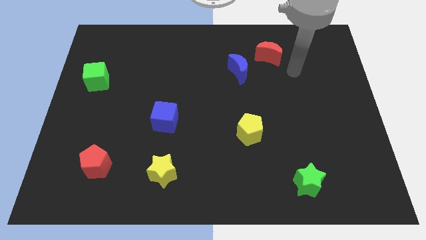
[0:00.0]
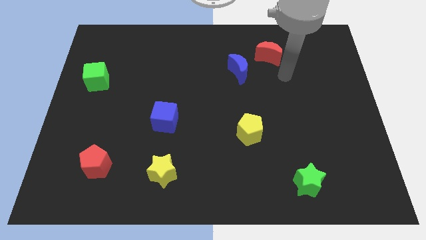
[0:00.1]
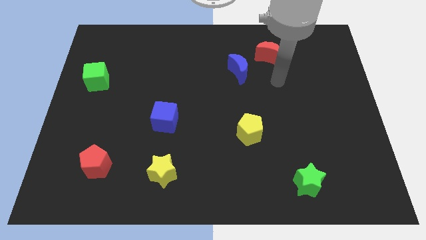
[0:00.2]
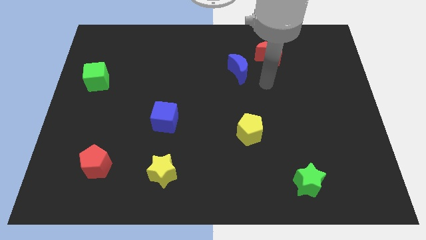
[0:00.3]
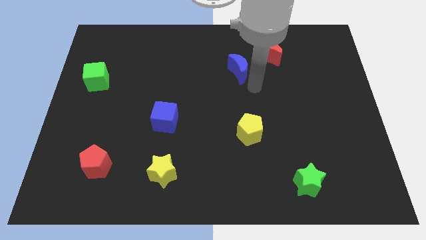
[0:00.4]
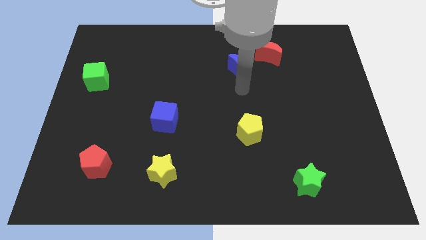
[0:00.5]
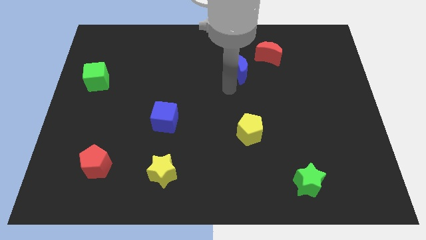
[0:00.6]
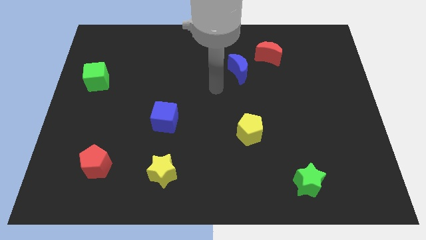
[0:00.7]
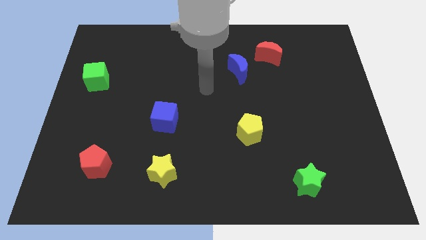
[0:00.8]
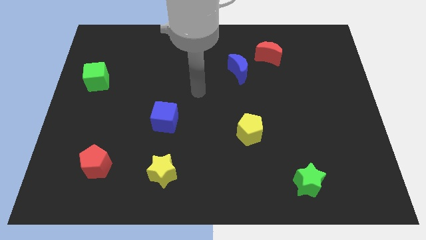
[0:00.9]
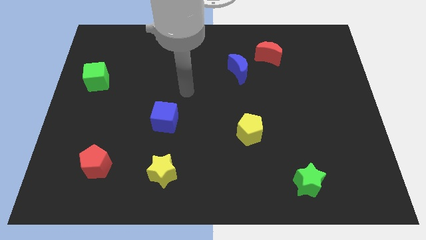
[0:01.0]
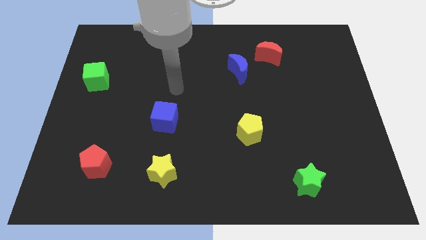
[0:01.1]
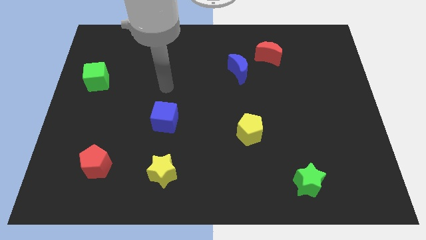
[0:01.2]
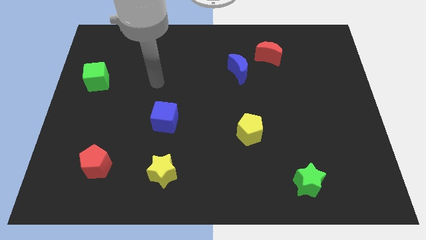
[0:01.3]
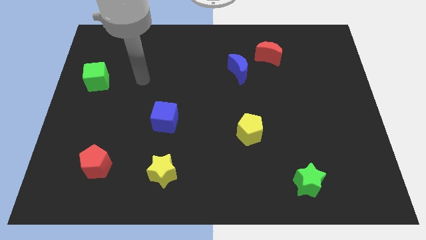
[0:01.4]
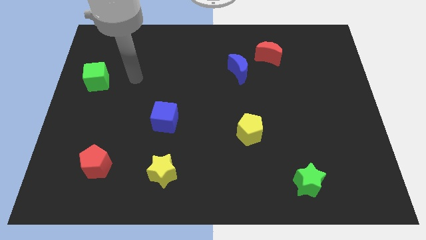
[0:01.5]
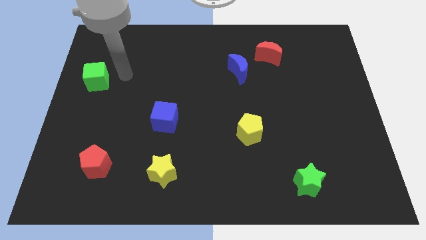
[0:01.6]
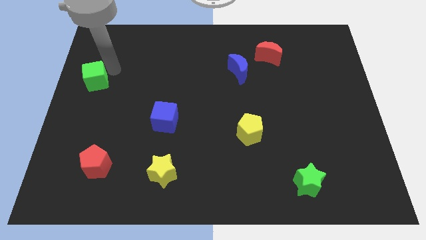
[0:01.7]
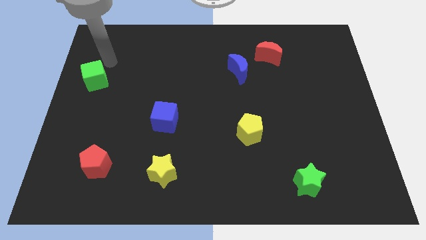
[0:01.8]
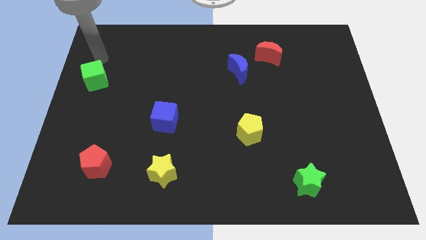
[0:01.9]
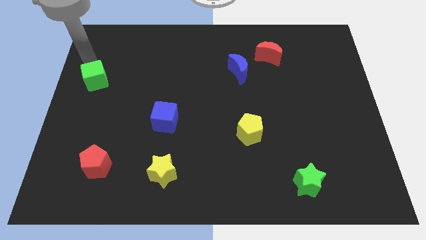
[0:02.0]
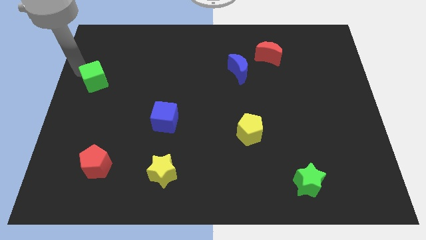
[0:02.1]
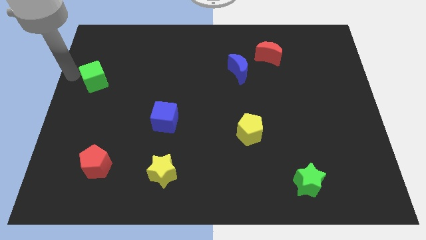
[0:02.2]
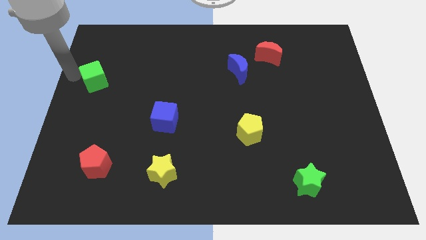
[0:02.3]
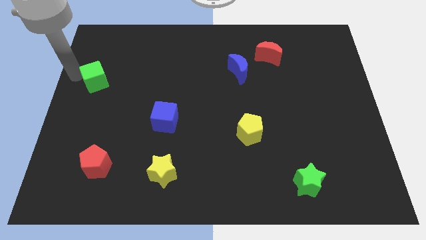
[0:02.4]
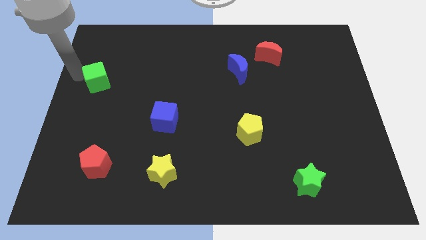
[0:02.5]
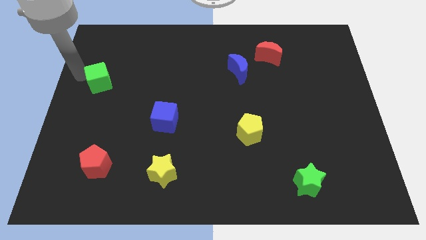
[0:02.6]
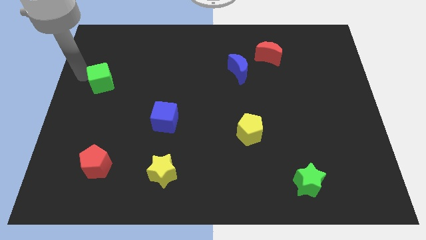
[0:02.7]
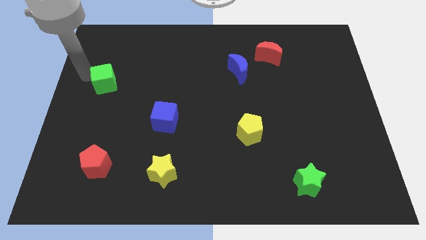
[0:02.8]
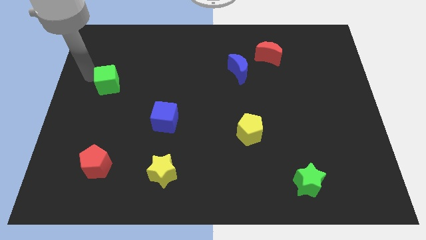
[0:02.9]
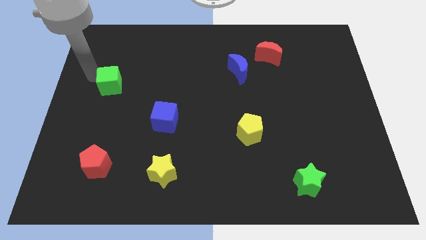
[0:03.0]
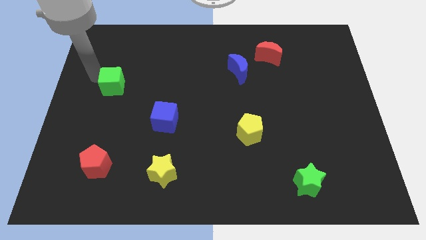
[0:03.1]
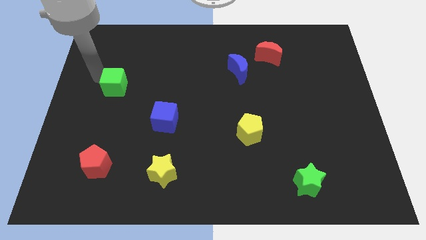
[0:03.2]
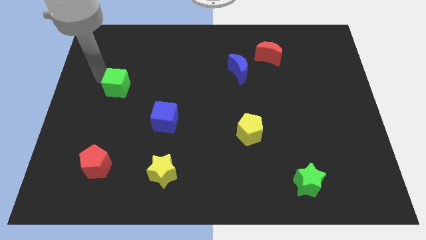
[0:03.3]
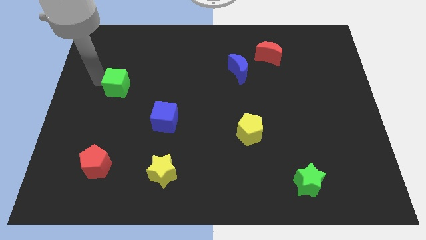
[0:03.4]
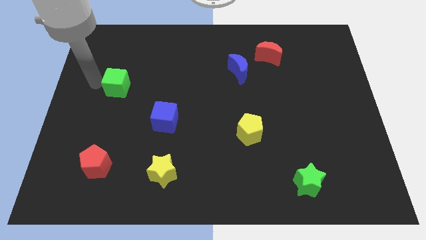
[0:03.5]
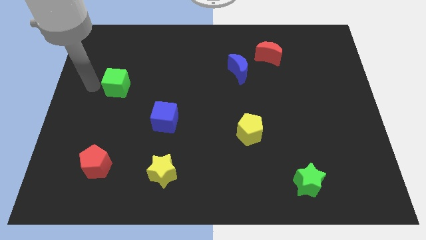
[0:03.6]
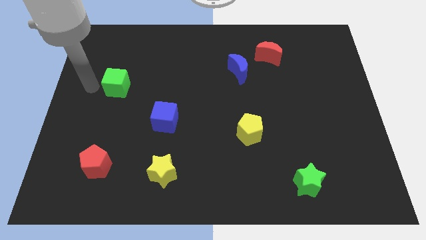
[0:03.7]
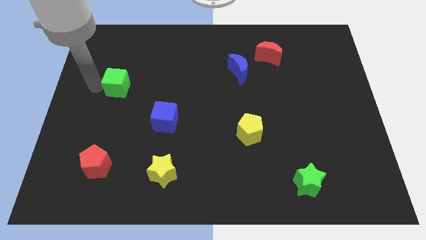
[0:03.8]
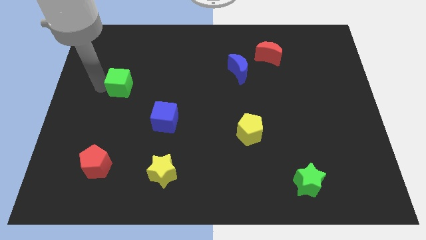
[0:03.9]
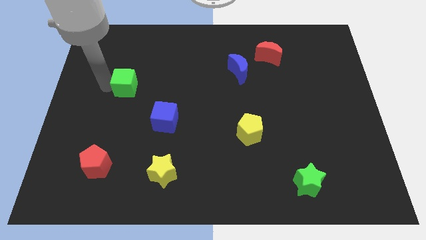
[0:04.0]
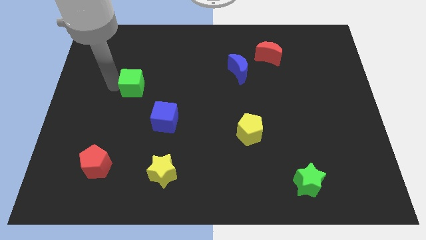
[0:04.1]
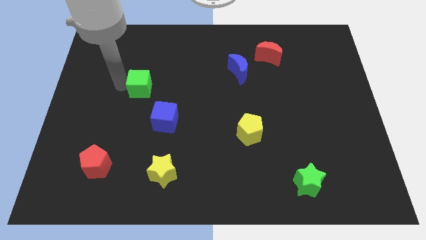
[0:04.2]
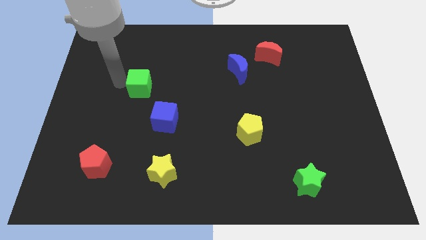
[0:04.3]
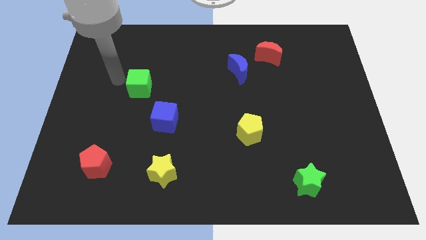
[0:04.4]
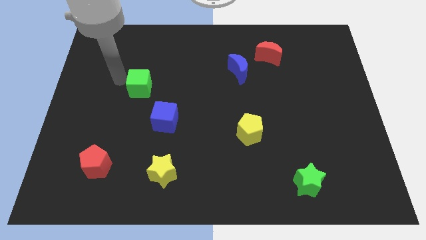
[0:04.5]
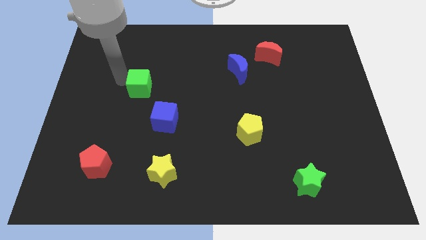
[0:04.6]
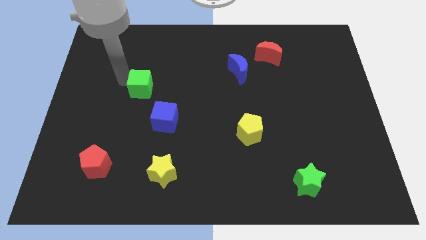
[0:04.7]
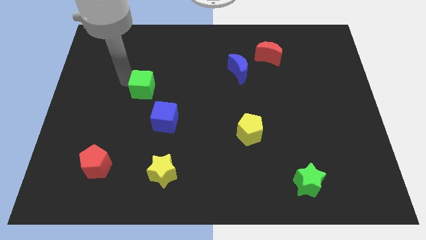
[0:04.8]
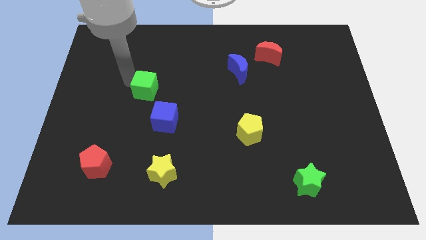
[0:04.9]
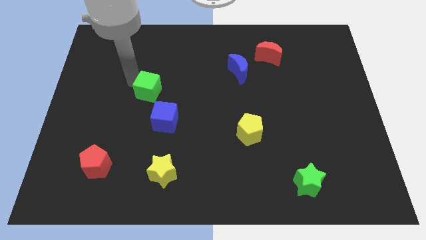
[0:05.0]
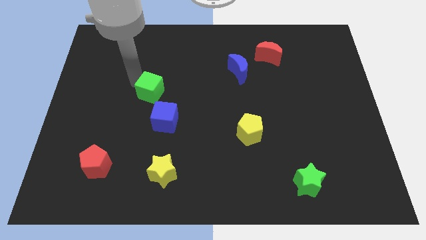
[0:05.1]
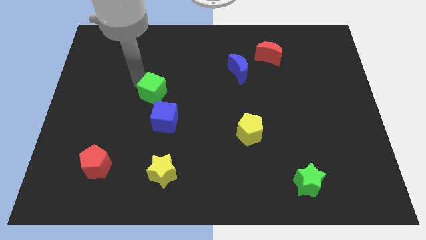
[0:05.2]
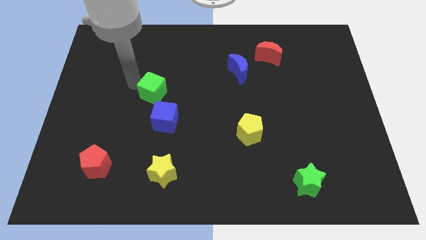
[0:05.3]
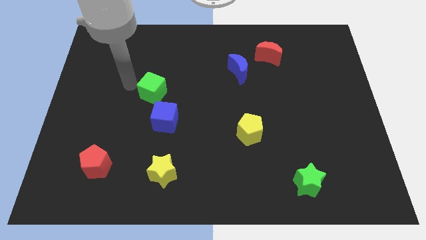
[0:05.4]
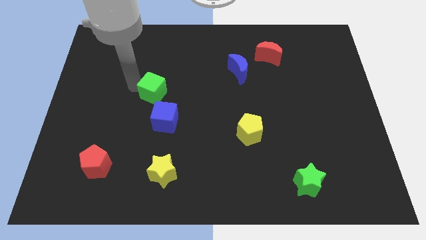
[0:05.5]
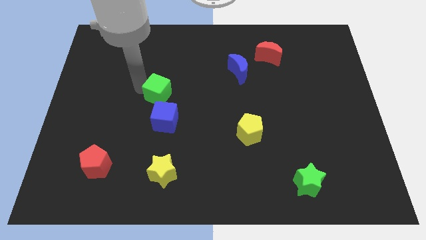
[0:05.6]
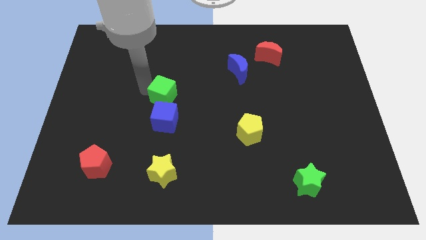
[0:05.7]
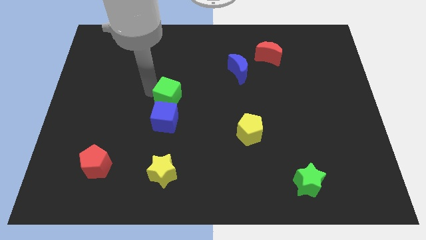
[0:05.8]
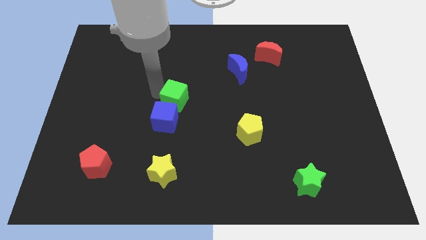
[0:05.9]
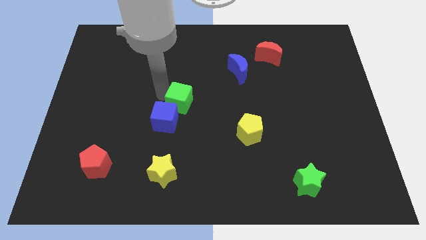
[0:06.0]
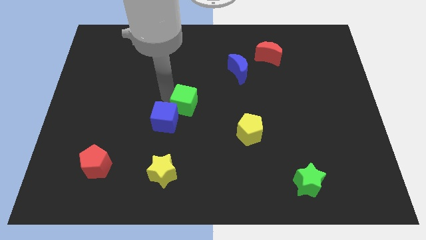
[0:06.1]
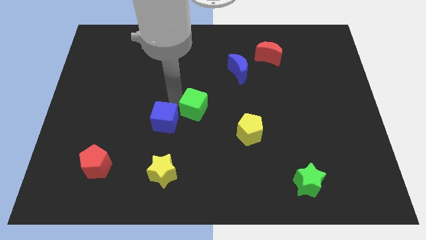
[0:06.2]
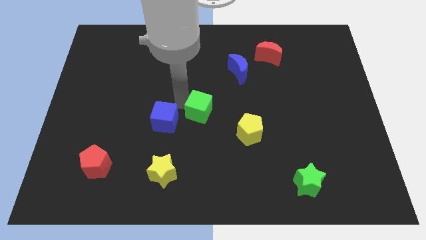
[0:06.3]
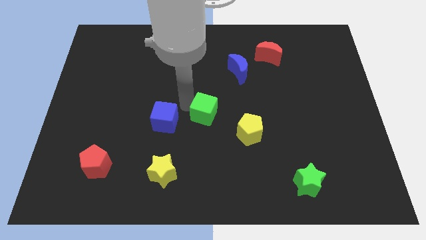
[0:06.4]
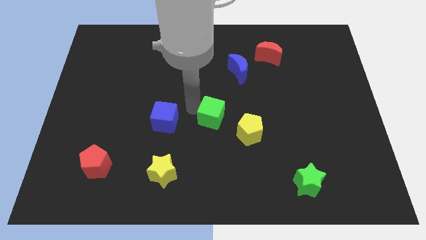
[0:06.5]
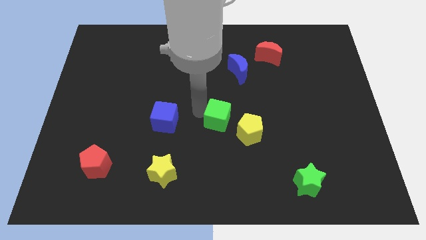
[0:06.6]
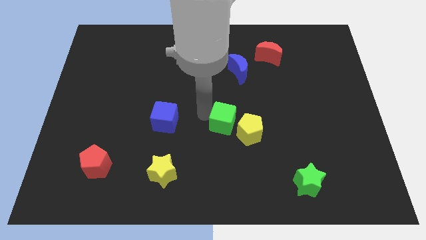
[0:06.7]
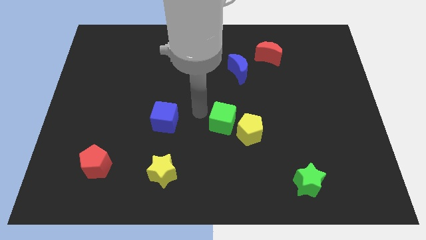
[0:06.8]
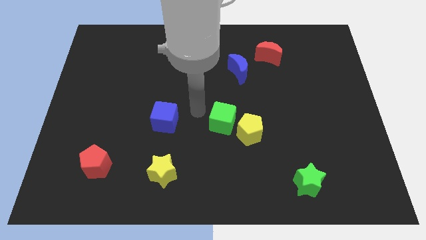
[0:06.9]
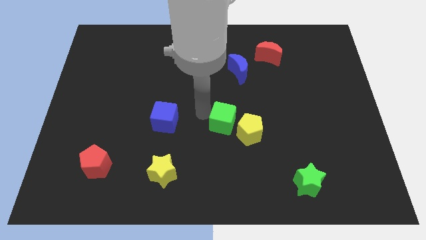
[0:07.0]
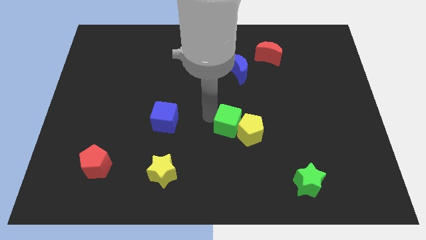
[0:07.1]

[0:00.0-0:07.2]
slide the green cube to the yellow pentagon
